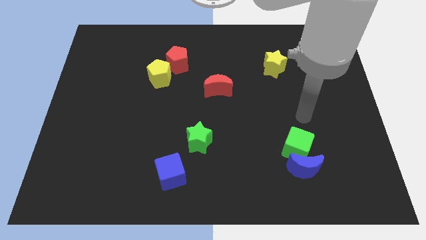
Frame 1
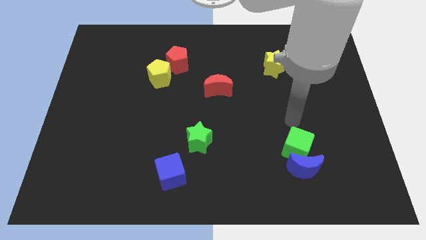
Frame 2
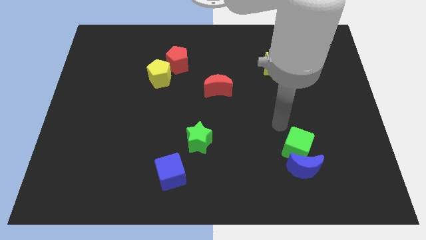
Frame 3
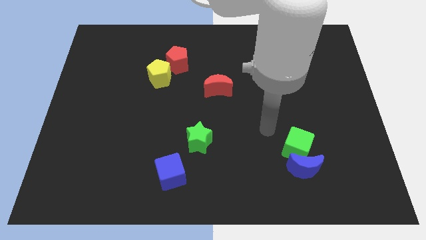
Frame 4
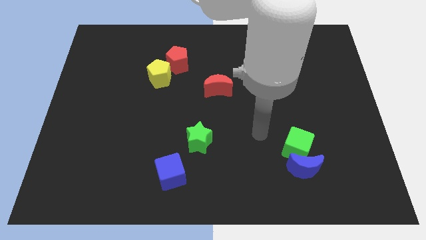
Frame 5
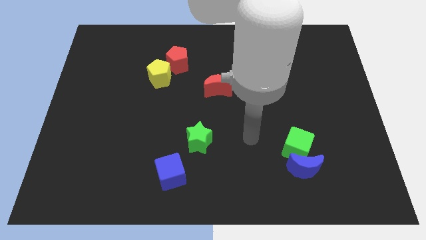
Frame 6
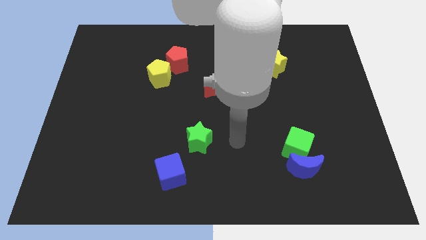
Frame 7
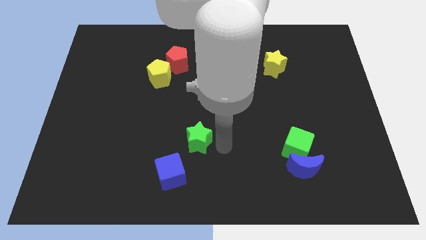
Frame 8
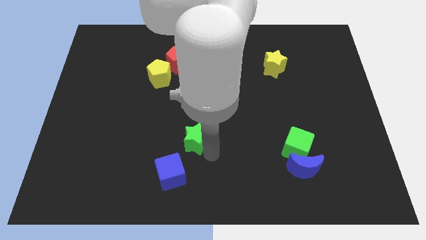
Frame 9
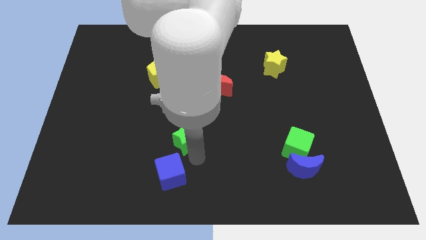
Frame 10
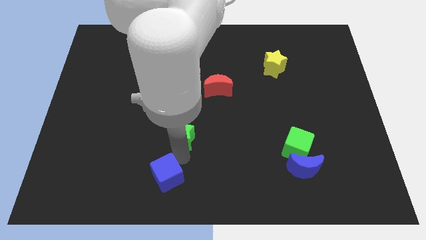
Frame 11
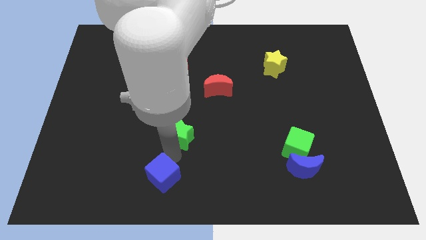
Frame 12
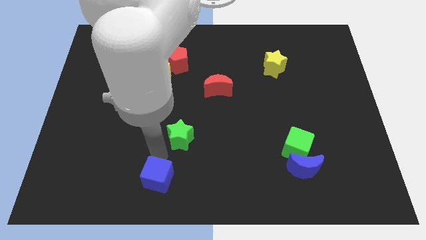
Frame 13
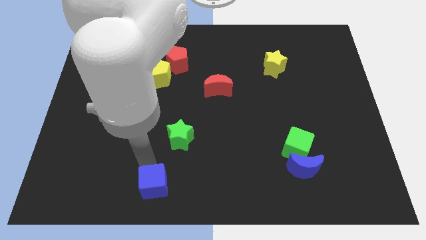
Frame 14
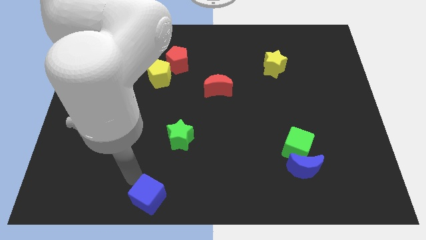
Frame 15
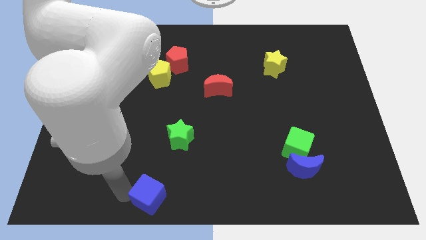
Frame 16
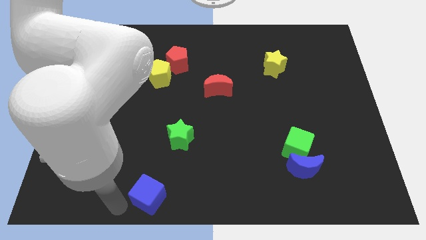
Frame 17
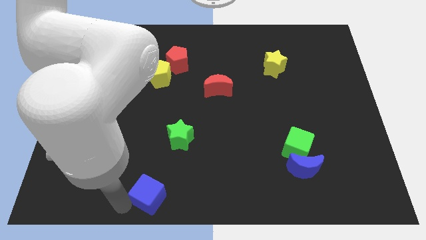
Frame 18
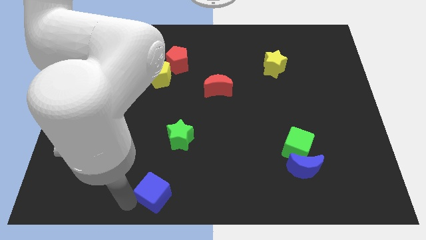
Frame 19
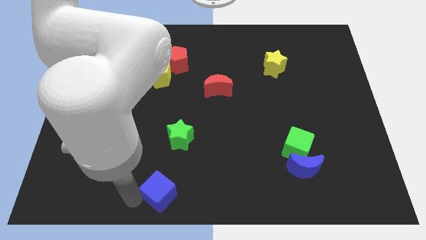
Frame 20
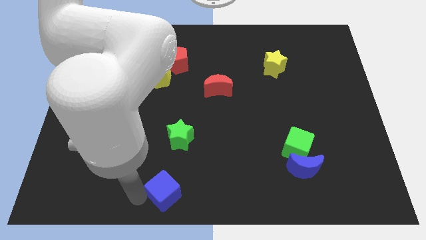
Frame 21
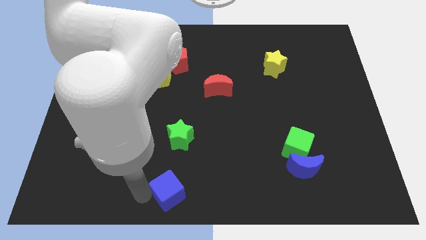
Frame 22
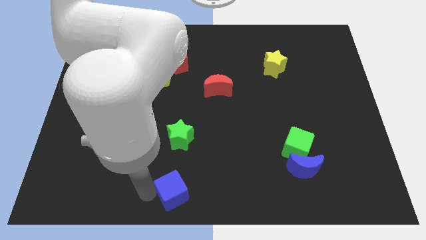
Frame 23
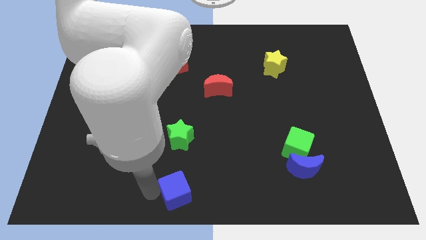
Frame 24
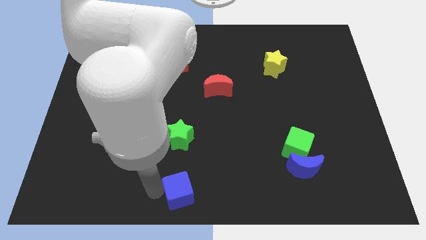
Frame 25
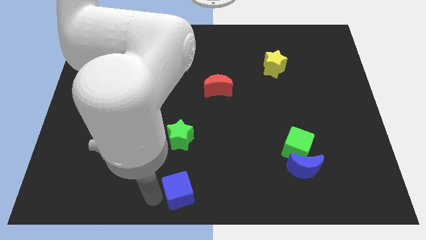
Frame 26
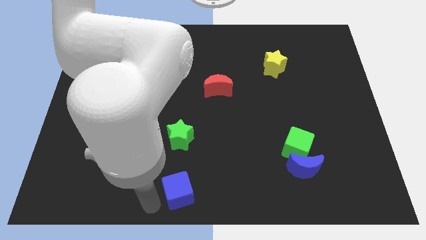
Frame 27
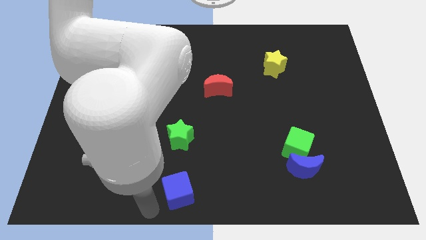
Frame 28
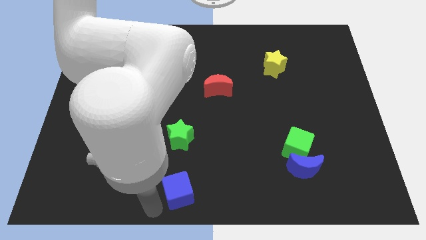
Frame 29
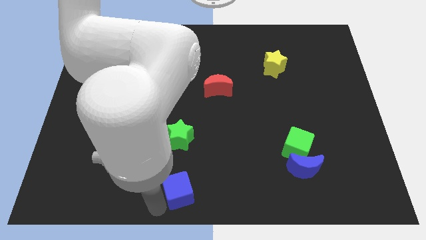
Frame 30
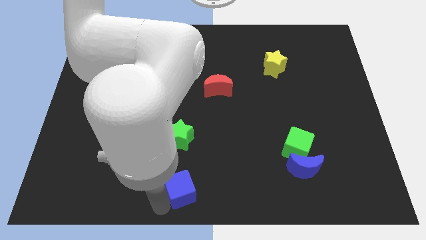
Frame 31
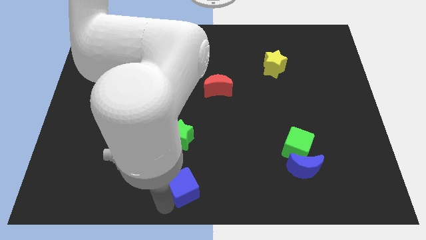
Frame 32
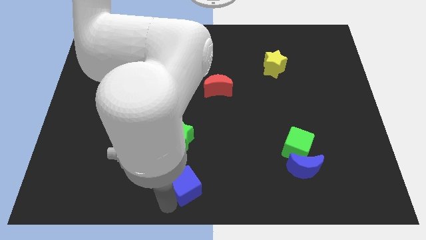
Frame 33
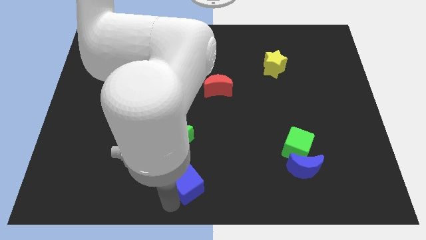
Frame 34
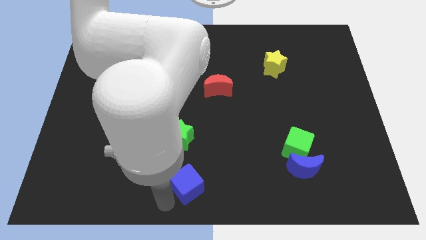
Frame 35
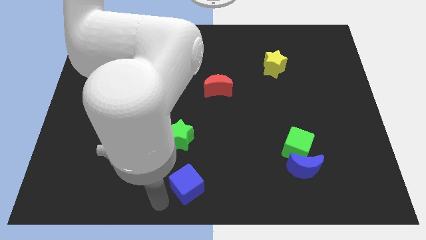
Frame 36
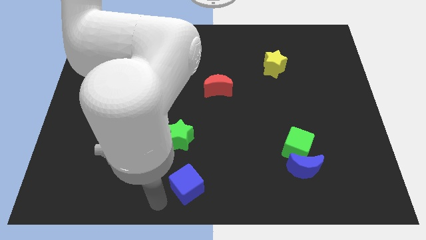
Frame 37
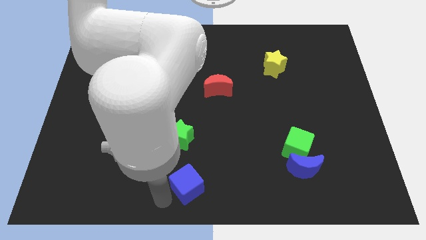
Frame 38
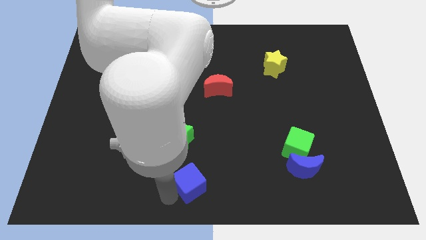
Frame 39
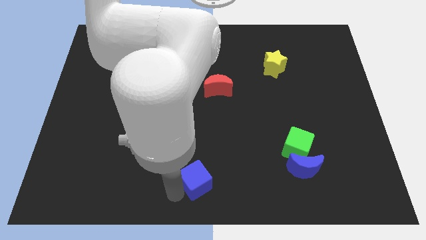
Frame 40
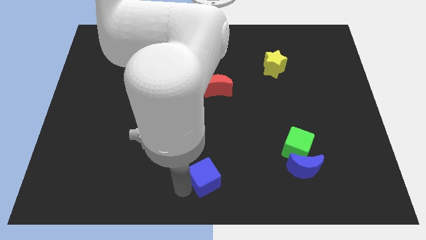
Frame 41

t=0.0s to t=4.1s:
slide the blue cube a little to the right

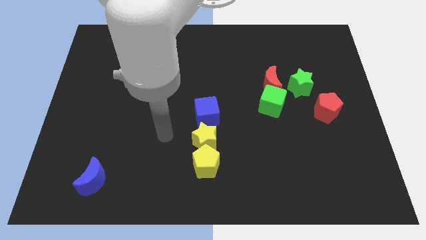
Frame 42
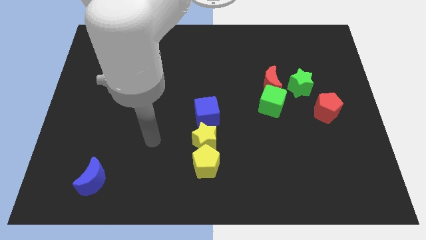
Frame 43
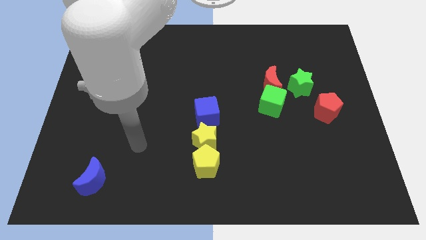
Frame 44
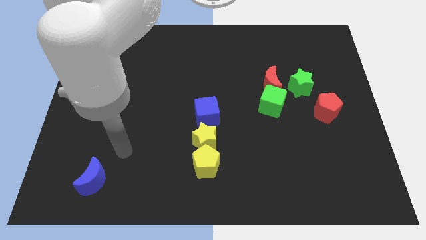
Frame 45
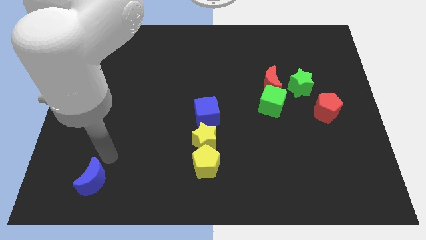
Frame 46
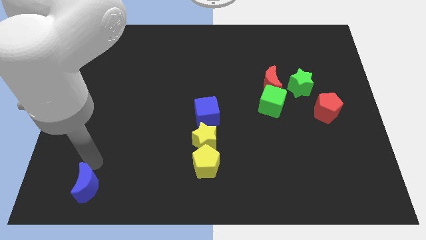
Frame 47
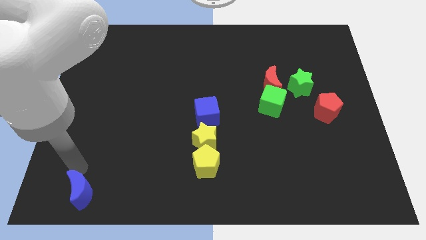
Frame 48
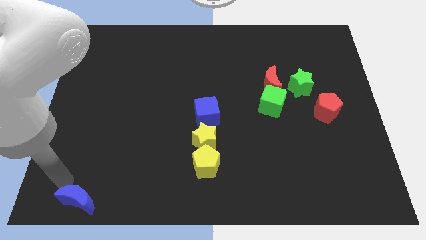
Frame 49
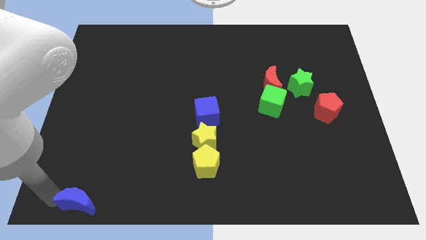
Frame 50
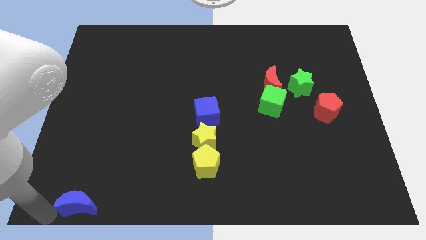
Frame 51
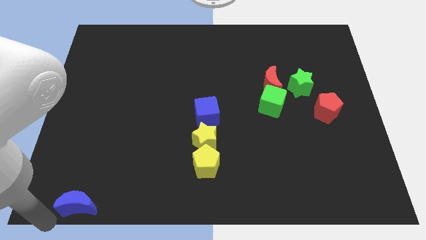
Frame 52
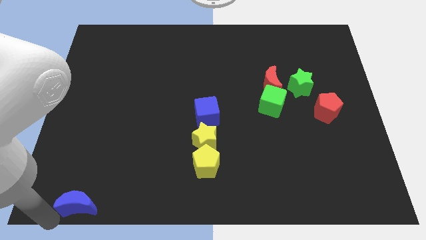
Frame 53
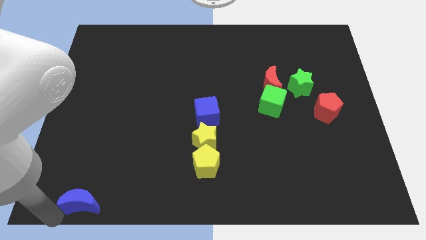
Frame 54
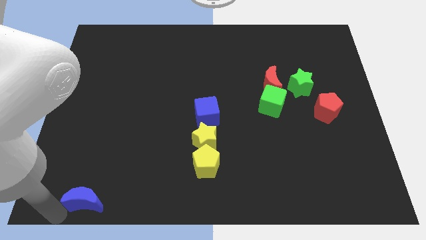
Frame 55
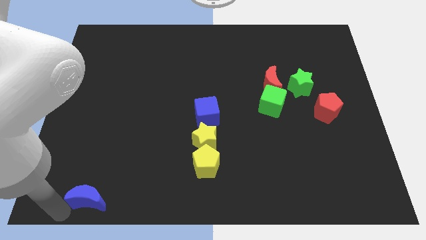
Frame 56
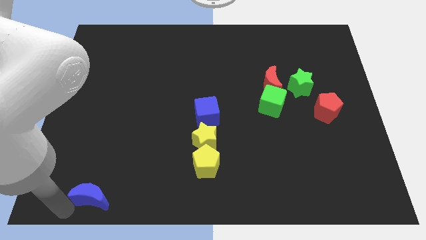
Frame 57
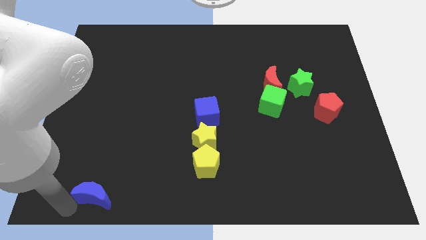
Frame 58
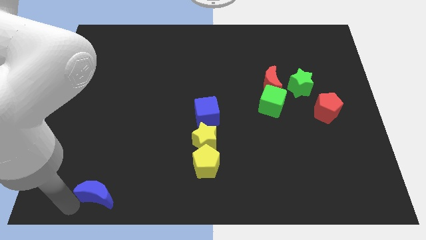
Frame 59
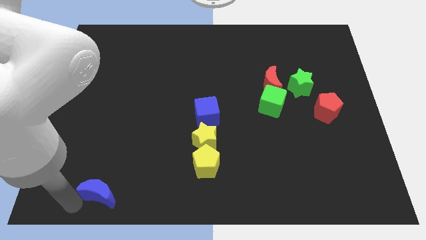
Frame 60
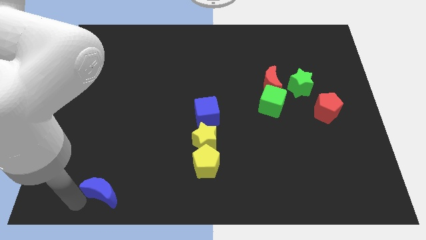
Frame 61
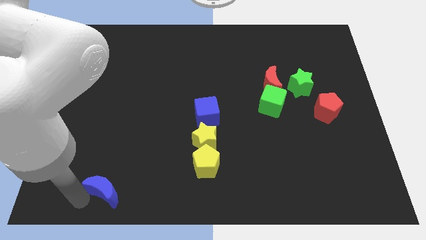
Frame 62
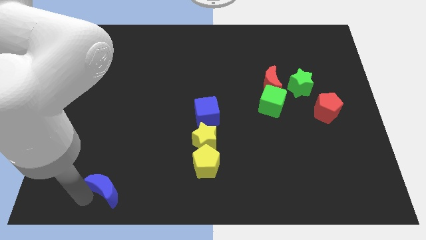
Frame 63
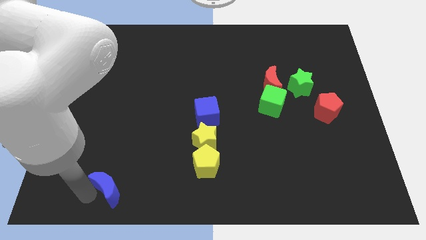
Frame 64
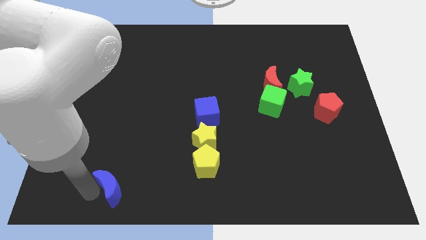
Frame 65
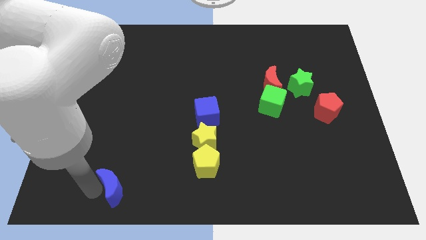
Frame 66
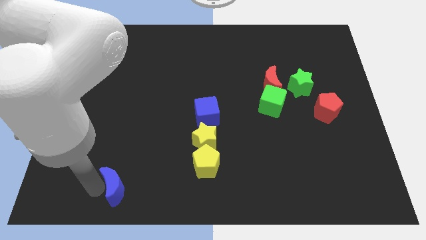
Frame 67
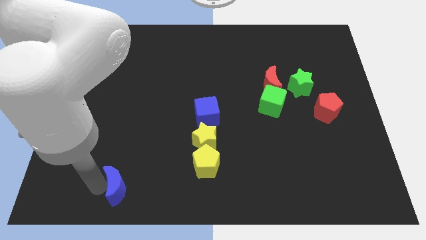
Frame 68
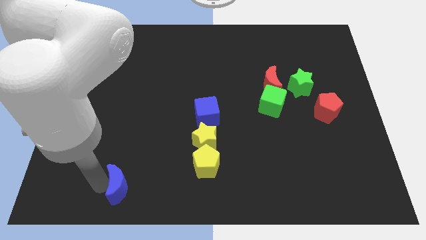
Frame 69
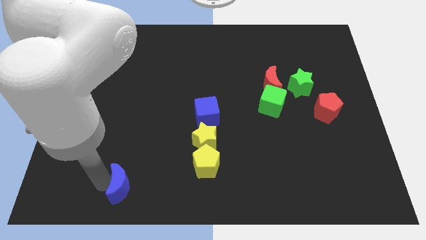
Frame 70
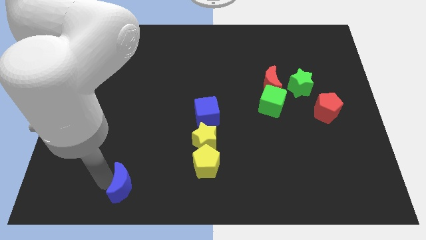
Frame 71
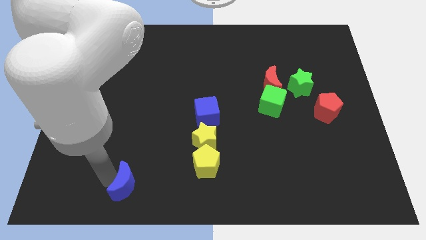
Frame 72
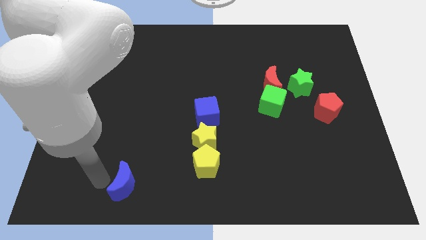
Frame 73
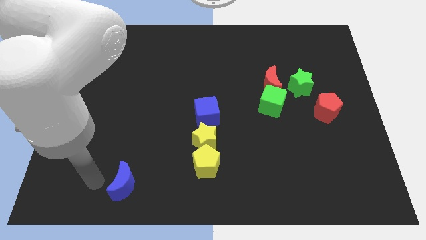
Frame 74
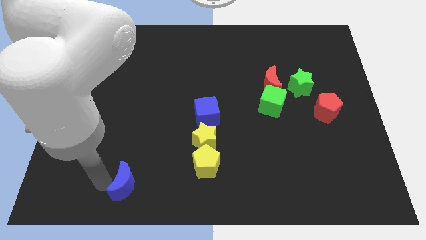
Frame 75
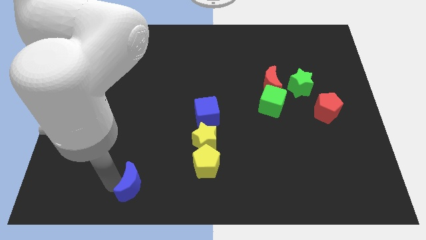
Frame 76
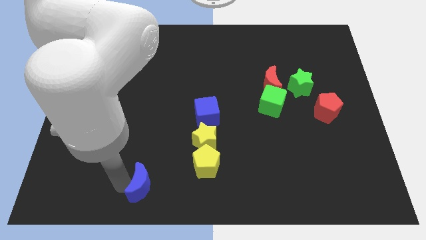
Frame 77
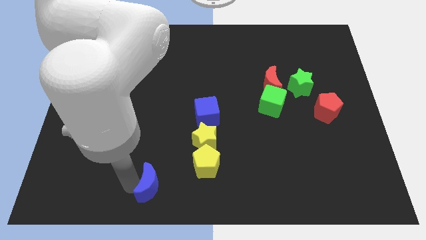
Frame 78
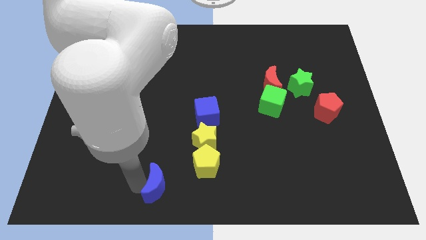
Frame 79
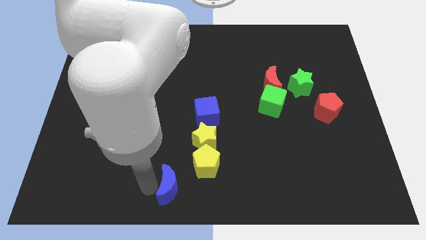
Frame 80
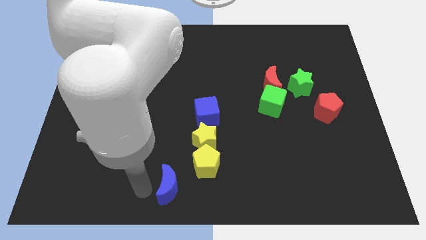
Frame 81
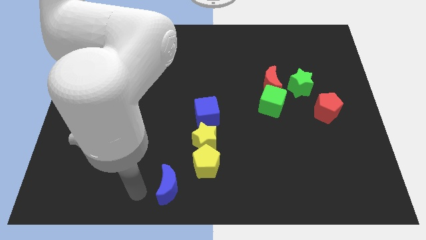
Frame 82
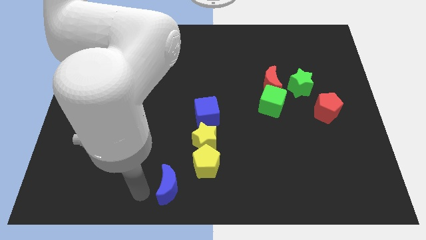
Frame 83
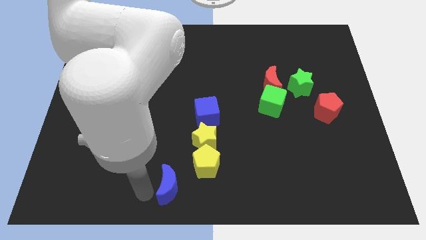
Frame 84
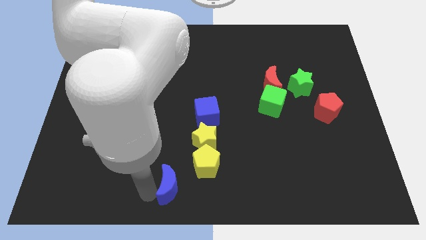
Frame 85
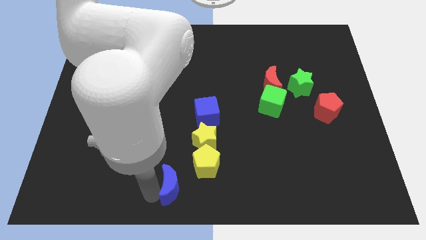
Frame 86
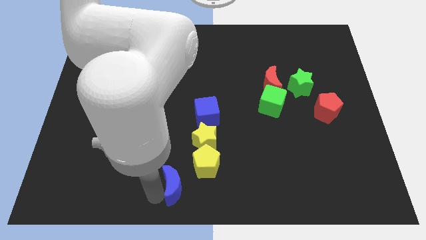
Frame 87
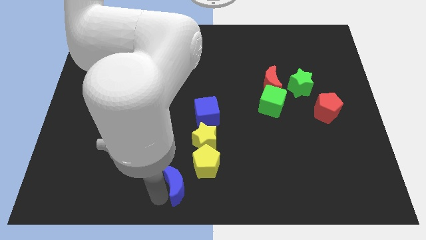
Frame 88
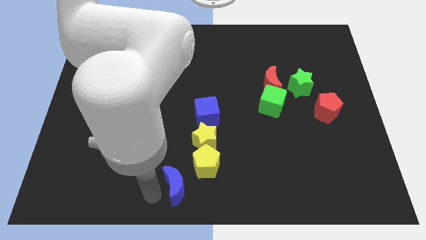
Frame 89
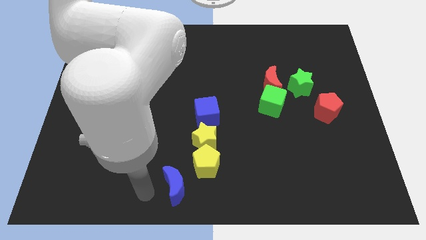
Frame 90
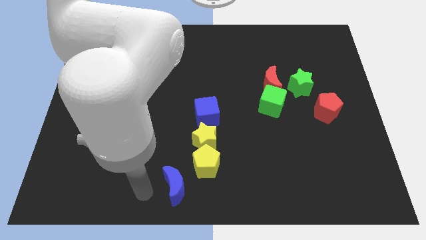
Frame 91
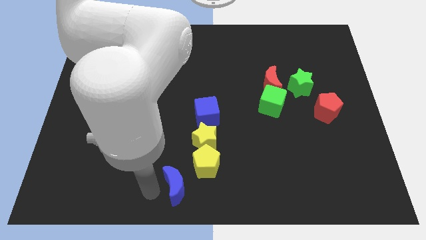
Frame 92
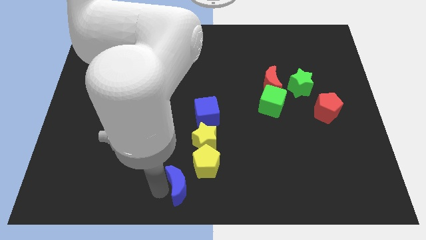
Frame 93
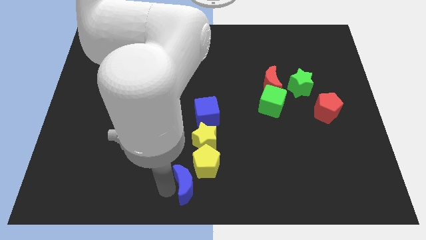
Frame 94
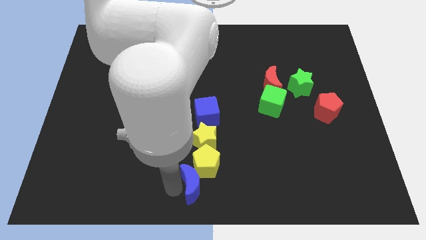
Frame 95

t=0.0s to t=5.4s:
move the blue moon right
